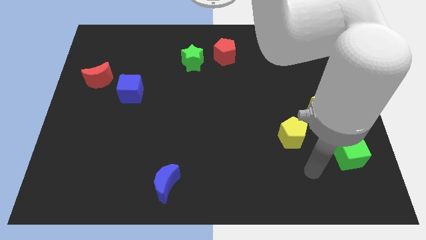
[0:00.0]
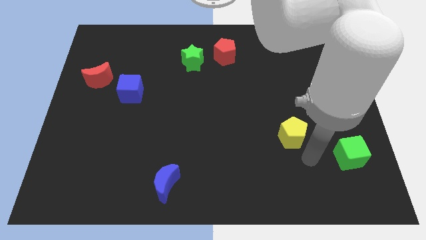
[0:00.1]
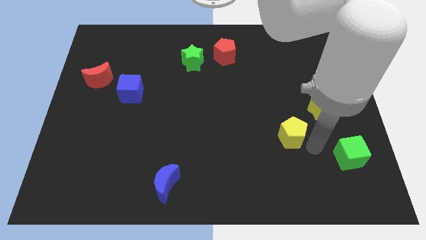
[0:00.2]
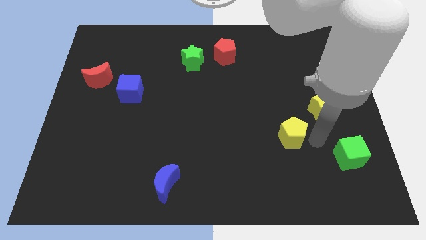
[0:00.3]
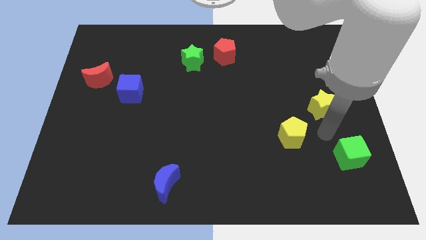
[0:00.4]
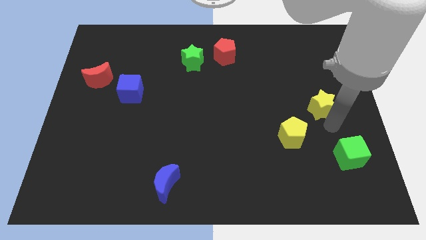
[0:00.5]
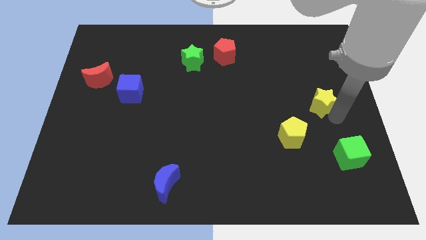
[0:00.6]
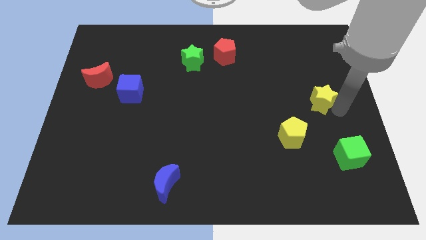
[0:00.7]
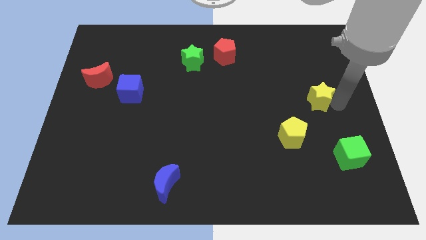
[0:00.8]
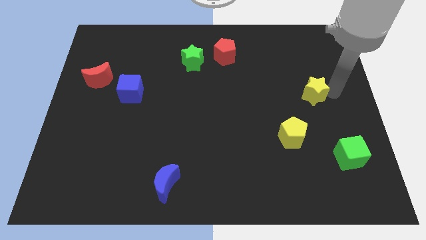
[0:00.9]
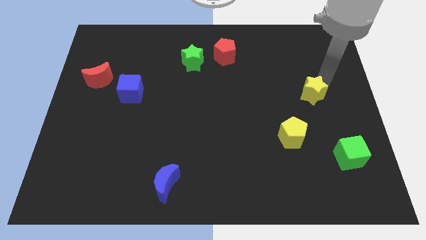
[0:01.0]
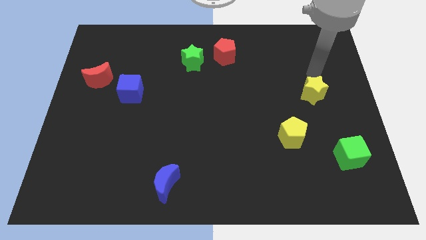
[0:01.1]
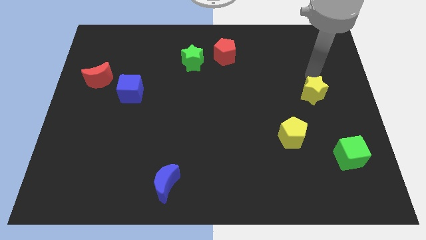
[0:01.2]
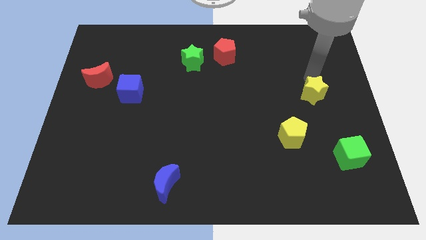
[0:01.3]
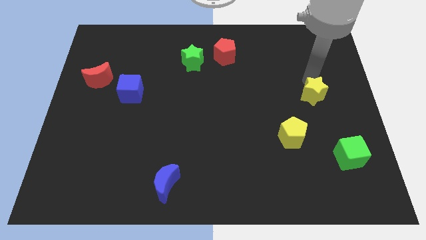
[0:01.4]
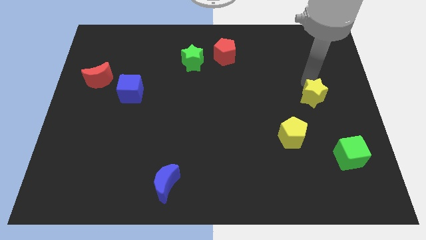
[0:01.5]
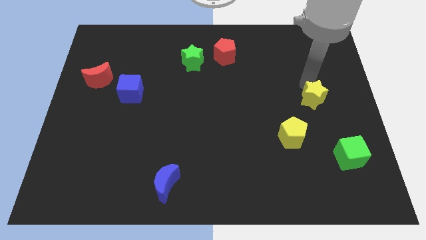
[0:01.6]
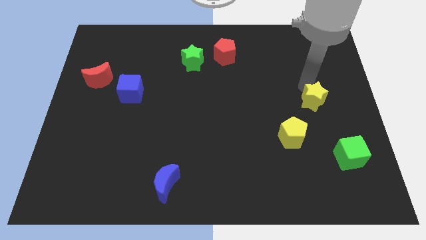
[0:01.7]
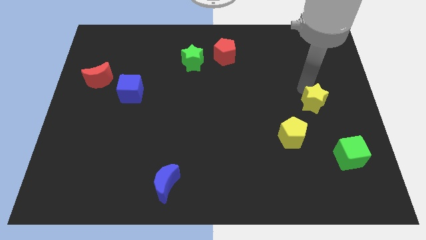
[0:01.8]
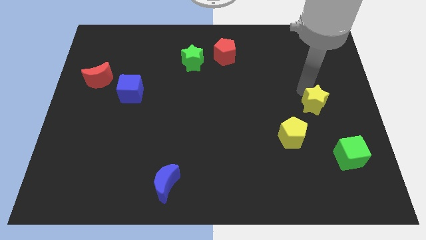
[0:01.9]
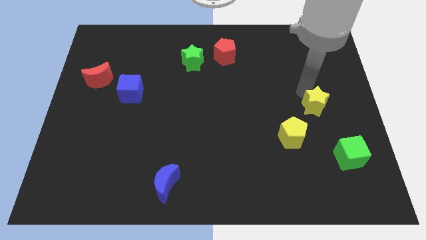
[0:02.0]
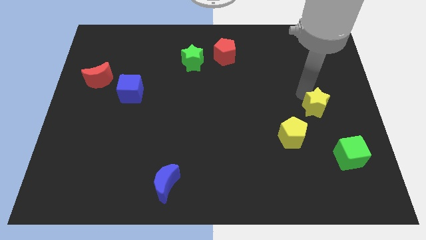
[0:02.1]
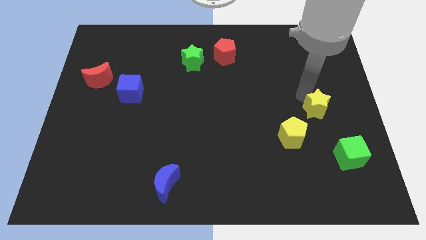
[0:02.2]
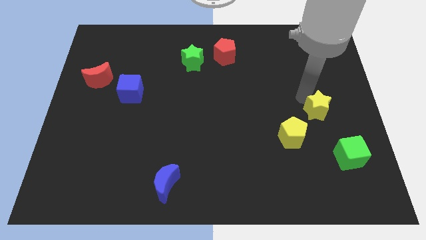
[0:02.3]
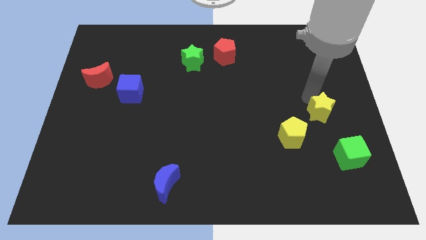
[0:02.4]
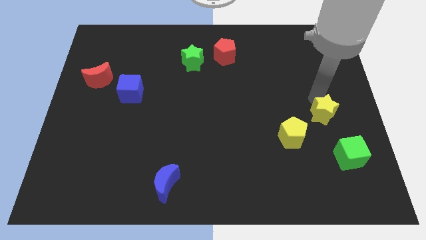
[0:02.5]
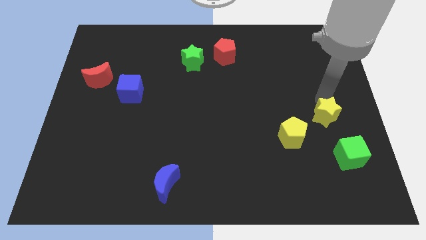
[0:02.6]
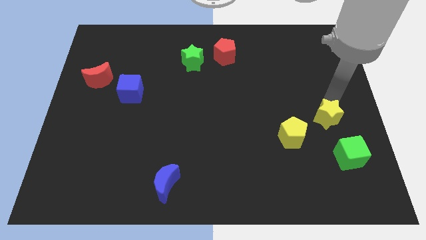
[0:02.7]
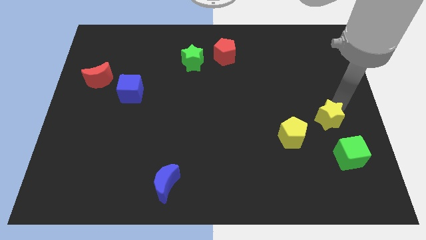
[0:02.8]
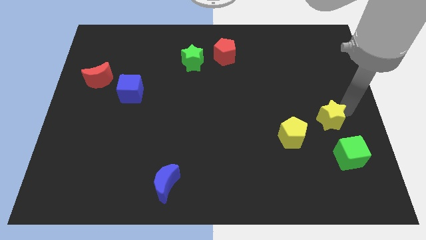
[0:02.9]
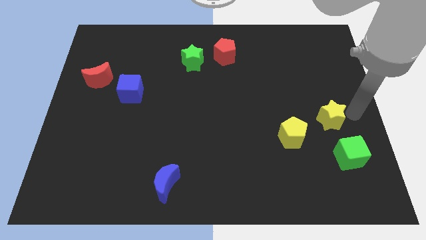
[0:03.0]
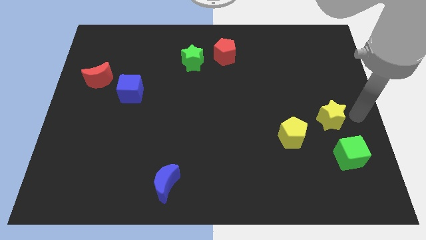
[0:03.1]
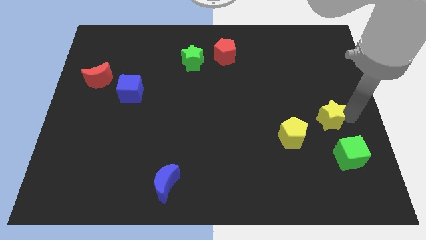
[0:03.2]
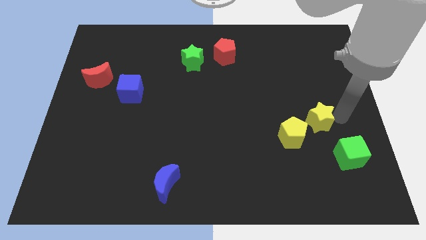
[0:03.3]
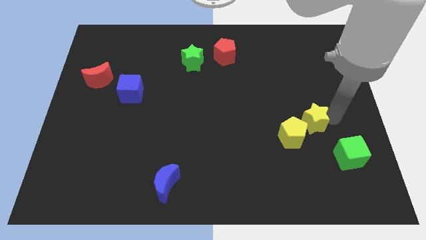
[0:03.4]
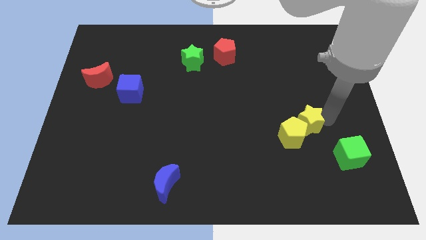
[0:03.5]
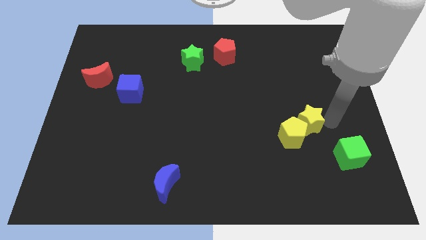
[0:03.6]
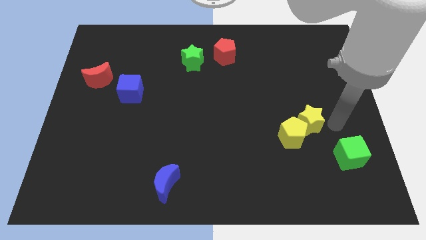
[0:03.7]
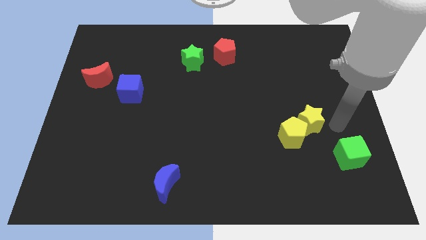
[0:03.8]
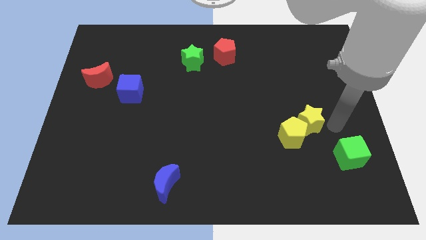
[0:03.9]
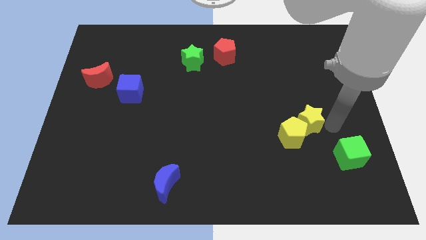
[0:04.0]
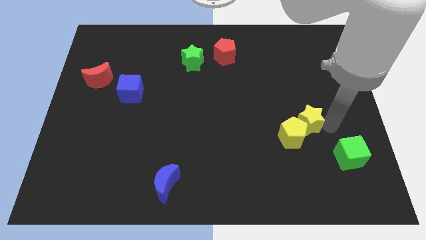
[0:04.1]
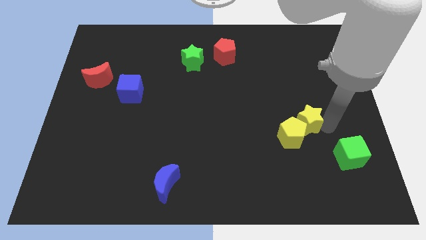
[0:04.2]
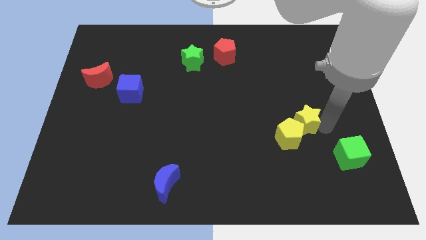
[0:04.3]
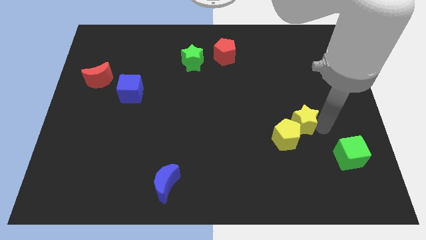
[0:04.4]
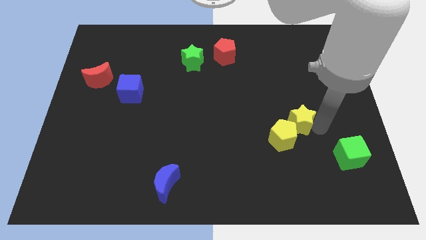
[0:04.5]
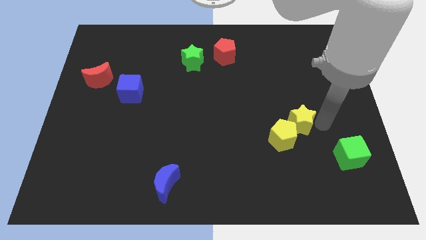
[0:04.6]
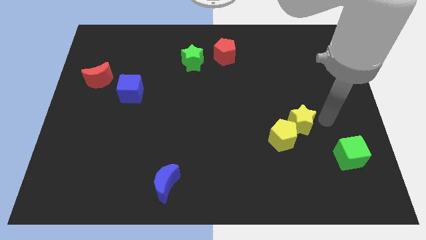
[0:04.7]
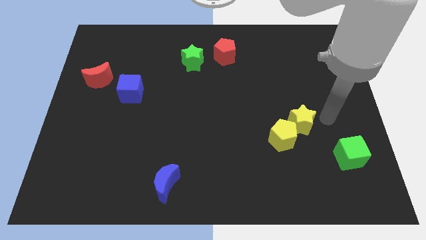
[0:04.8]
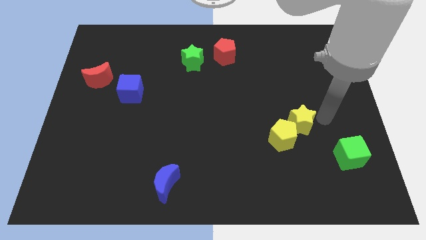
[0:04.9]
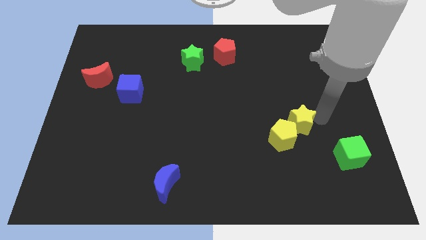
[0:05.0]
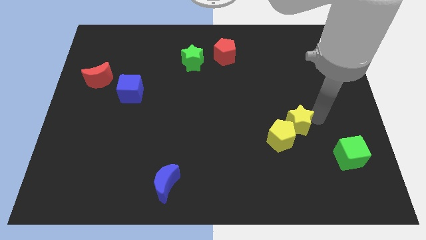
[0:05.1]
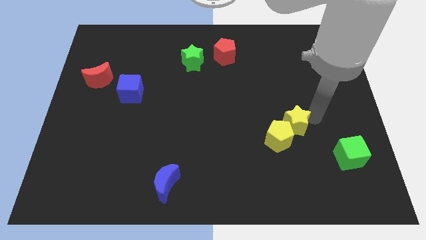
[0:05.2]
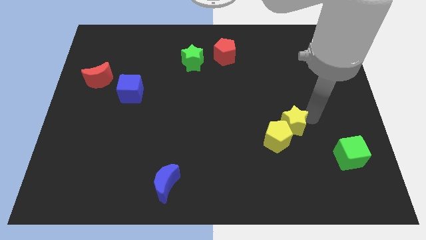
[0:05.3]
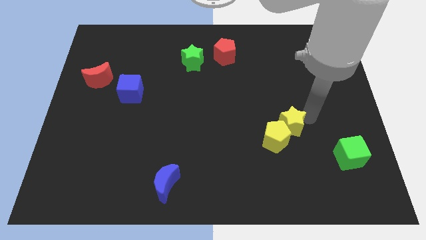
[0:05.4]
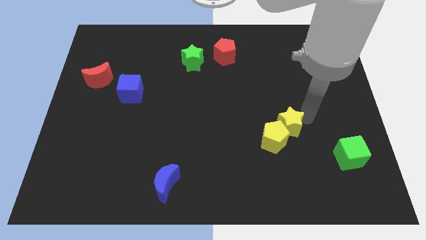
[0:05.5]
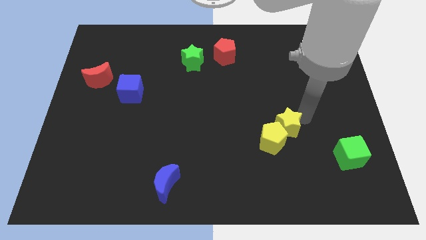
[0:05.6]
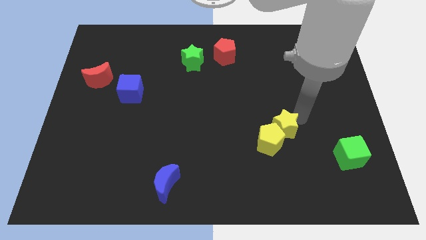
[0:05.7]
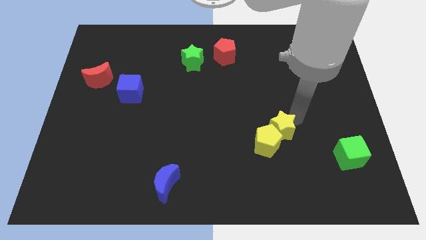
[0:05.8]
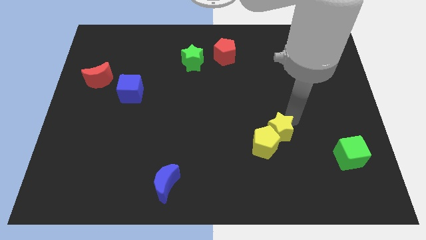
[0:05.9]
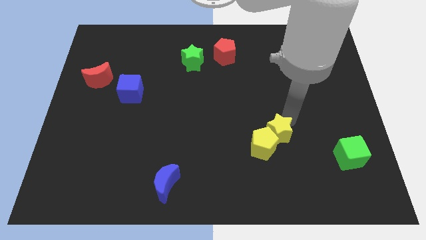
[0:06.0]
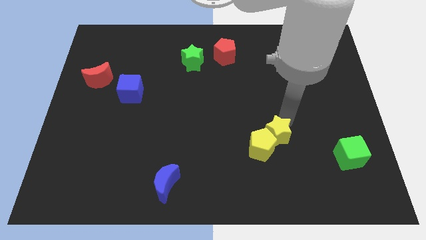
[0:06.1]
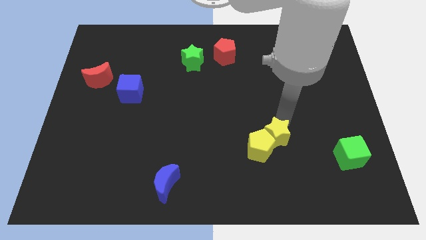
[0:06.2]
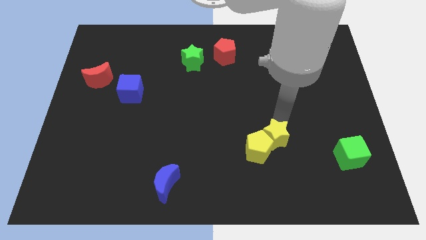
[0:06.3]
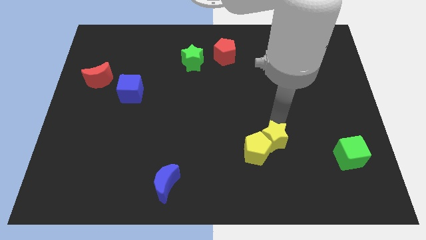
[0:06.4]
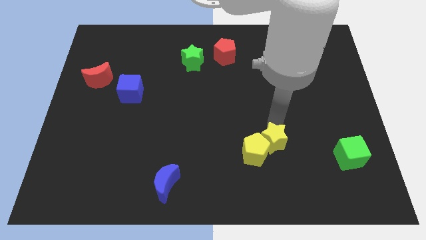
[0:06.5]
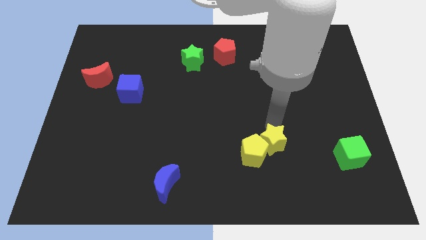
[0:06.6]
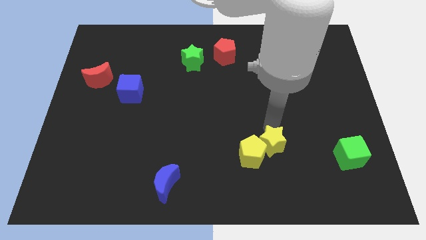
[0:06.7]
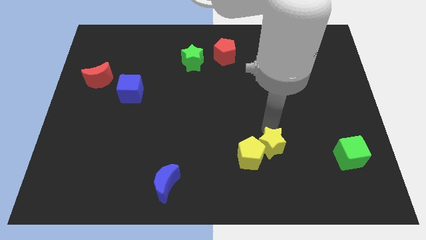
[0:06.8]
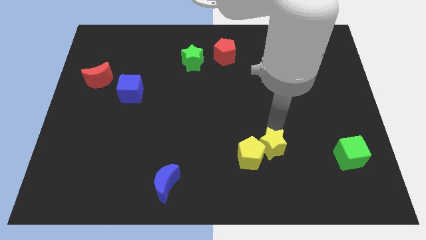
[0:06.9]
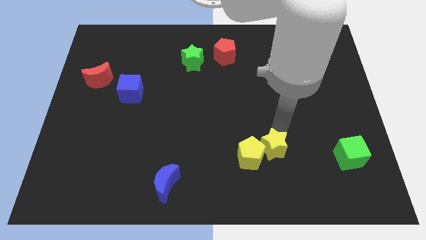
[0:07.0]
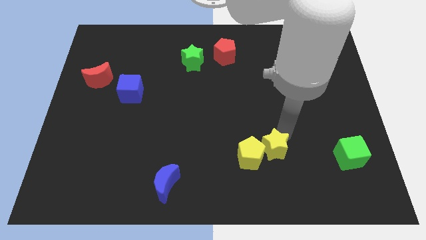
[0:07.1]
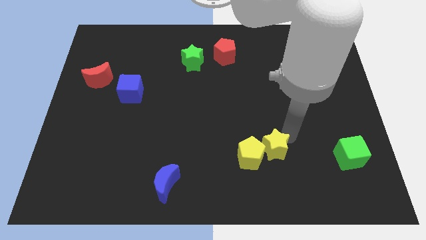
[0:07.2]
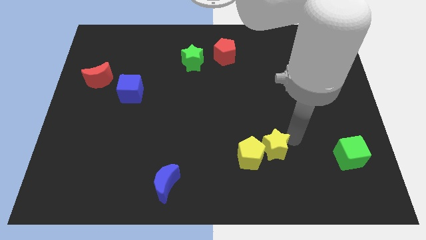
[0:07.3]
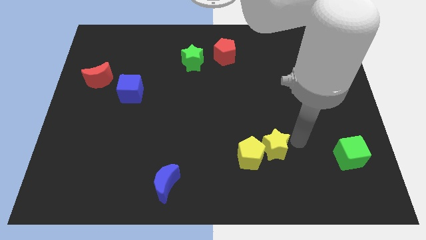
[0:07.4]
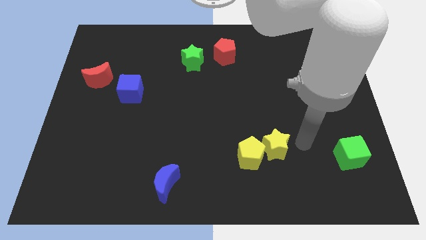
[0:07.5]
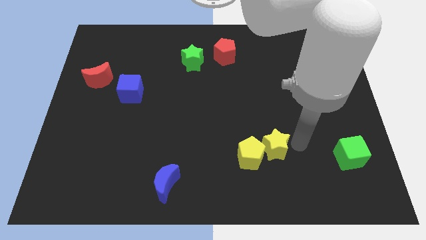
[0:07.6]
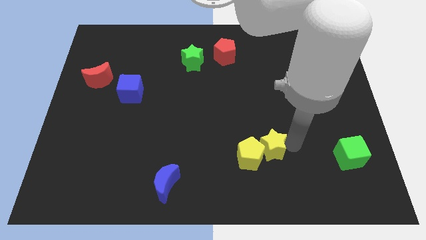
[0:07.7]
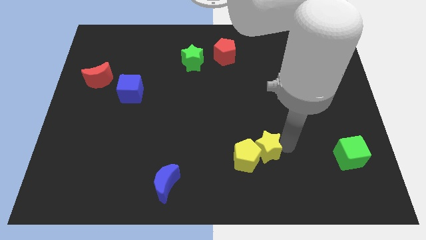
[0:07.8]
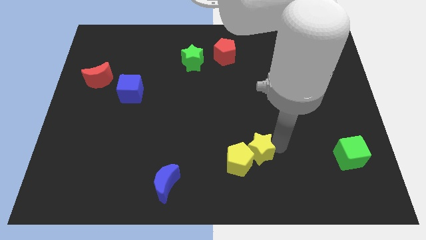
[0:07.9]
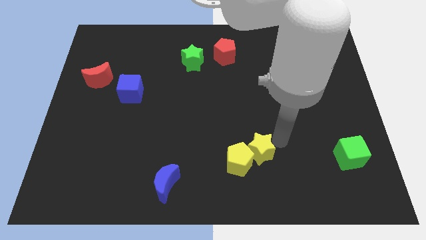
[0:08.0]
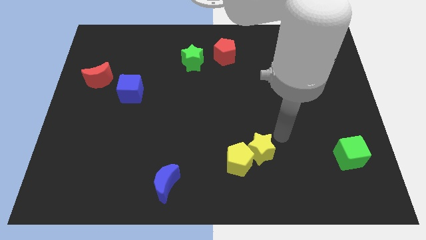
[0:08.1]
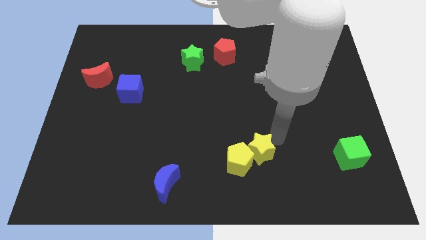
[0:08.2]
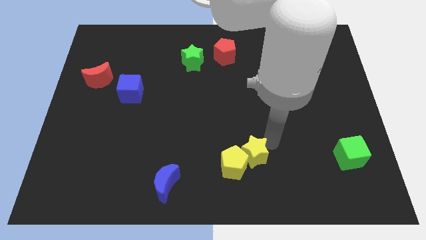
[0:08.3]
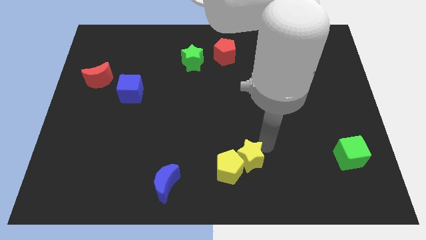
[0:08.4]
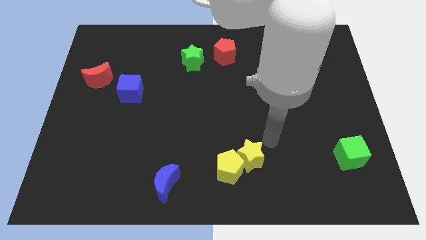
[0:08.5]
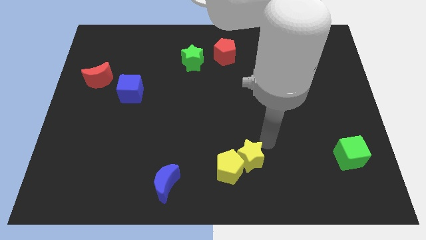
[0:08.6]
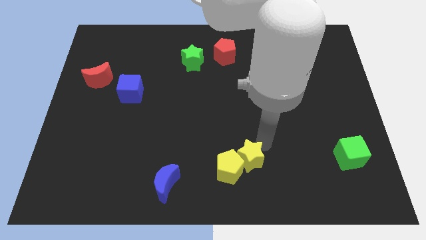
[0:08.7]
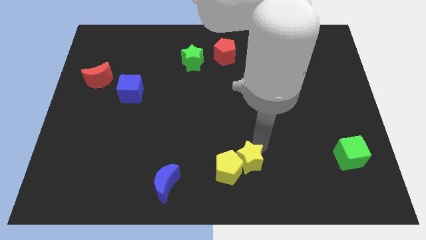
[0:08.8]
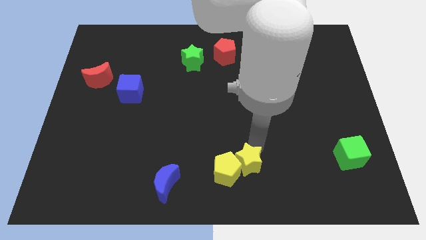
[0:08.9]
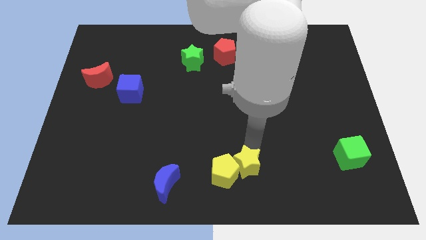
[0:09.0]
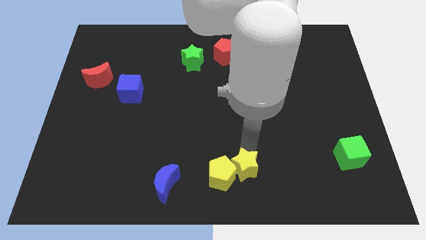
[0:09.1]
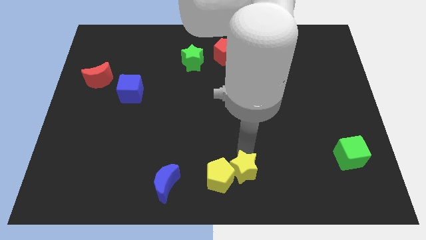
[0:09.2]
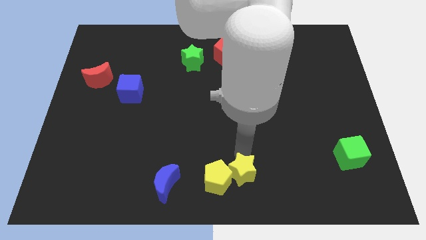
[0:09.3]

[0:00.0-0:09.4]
move the yellow star to the right of the blue moon
